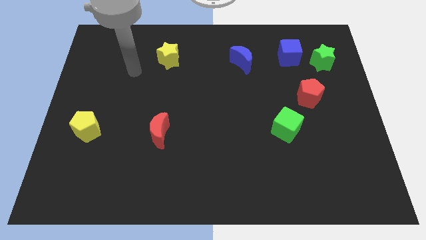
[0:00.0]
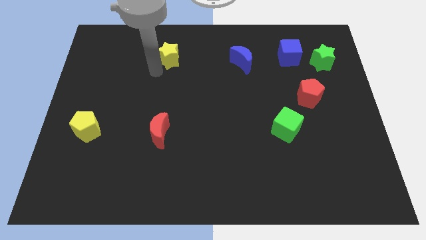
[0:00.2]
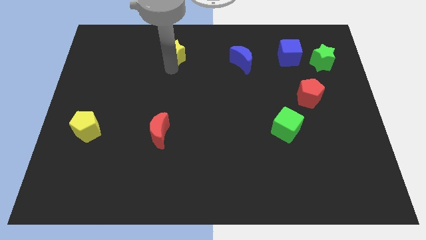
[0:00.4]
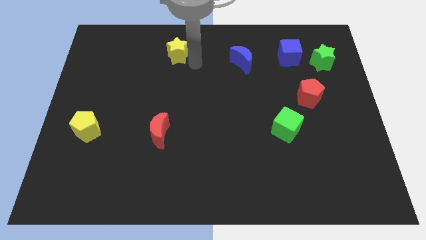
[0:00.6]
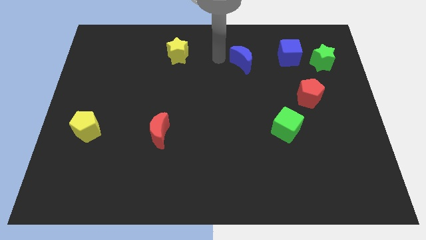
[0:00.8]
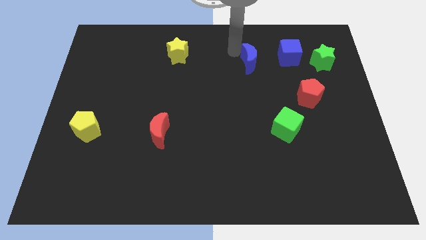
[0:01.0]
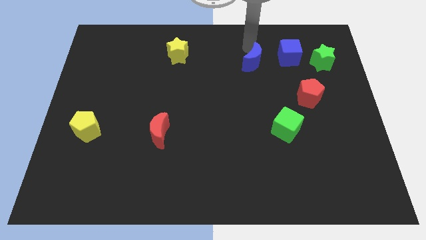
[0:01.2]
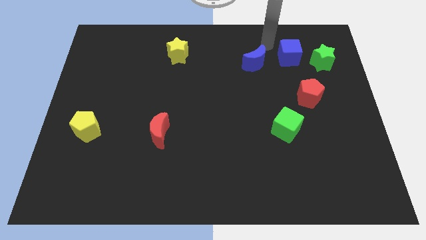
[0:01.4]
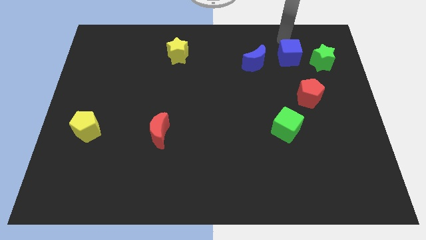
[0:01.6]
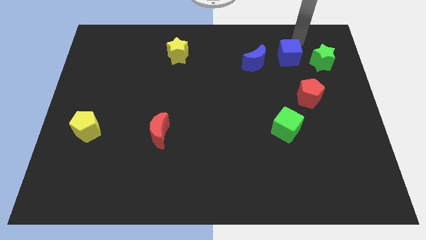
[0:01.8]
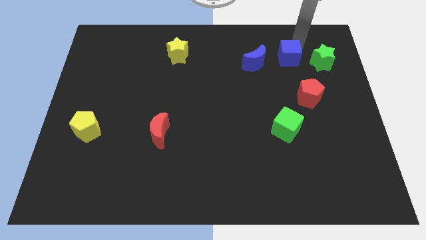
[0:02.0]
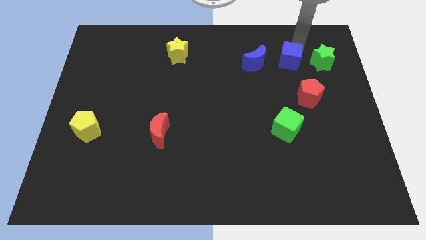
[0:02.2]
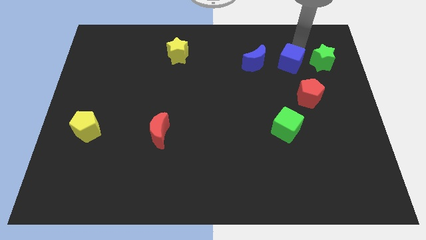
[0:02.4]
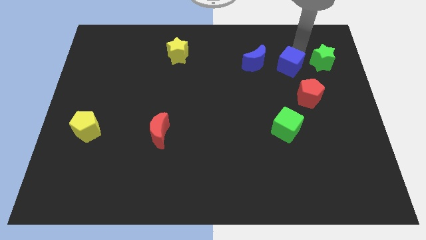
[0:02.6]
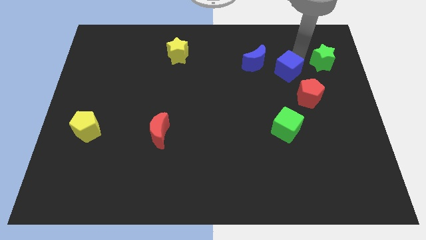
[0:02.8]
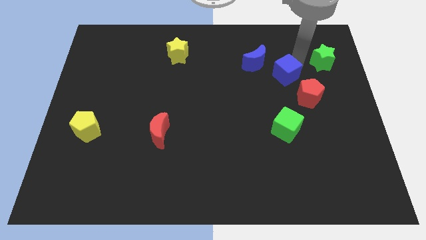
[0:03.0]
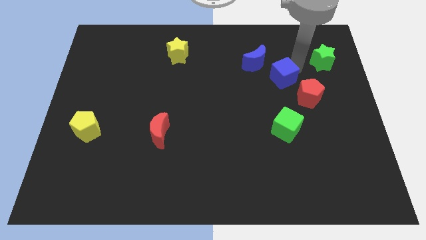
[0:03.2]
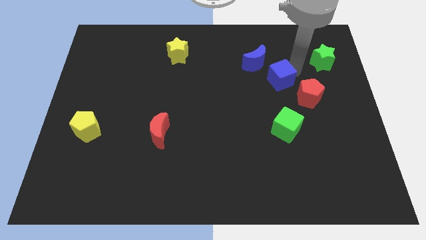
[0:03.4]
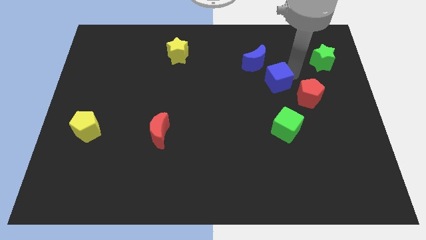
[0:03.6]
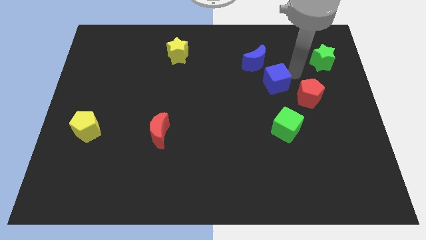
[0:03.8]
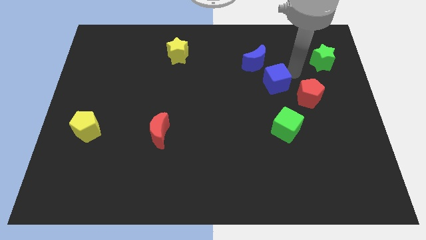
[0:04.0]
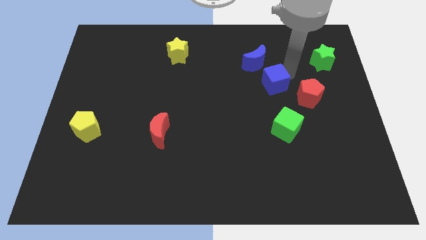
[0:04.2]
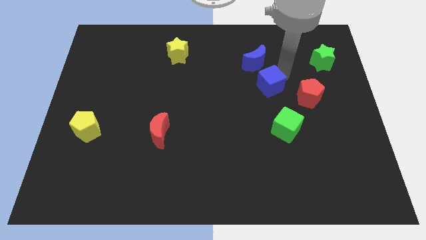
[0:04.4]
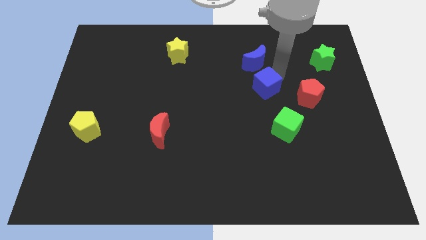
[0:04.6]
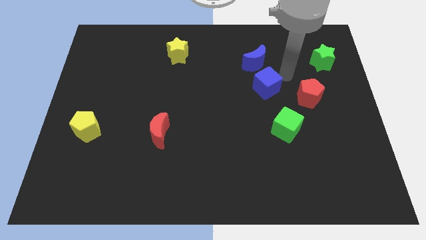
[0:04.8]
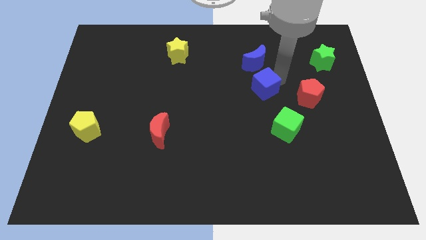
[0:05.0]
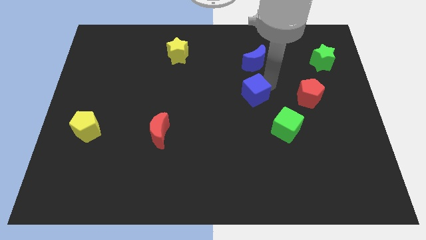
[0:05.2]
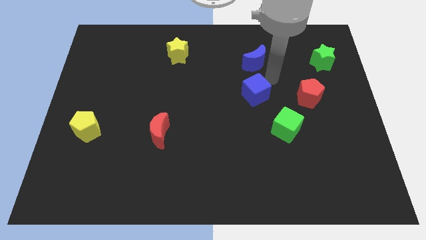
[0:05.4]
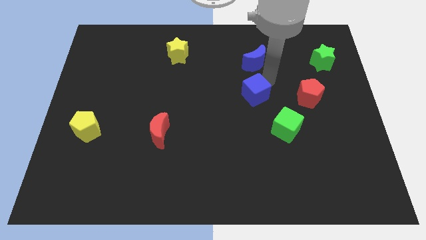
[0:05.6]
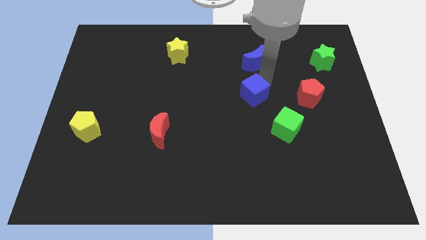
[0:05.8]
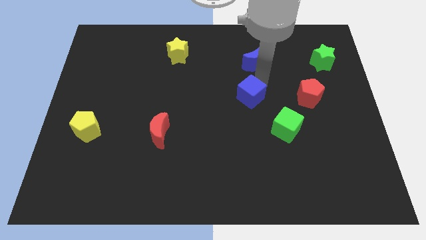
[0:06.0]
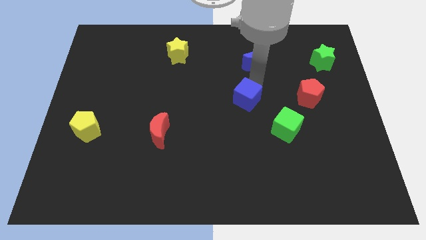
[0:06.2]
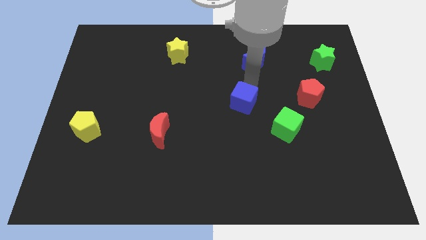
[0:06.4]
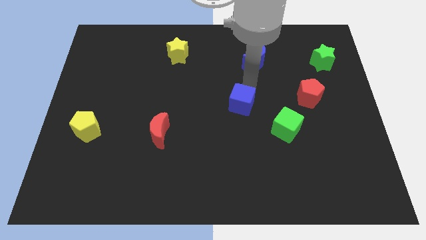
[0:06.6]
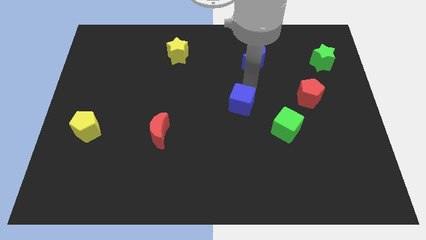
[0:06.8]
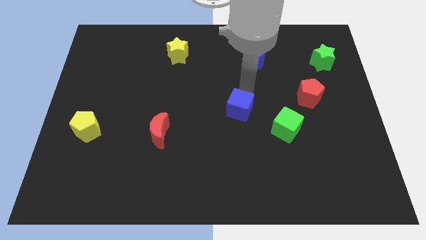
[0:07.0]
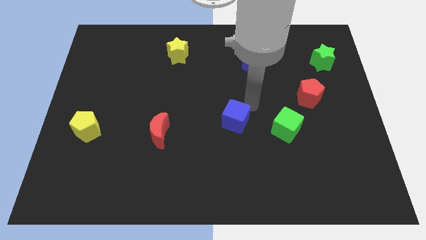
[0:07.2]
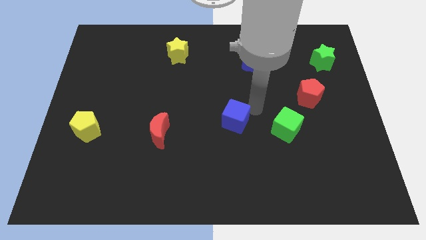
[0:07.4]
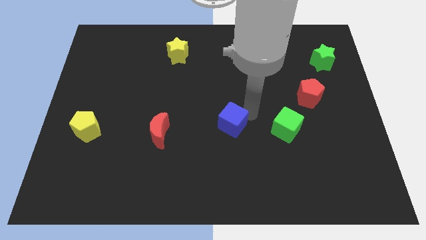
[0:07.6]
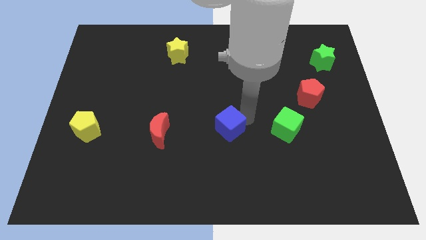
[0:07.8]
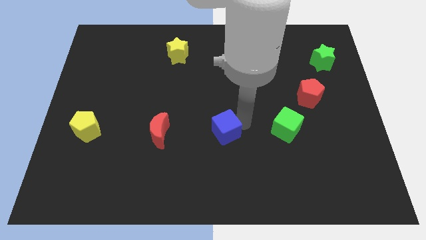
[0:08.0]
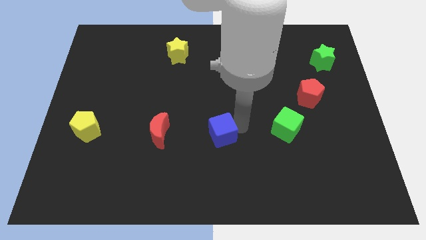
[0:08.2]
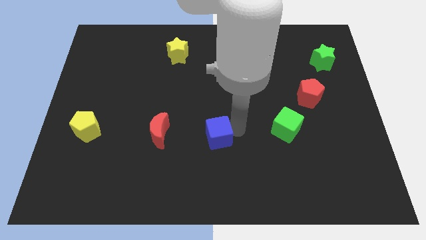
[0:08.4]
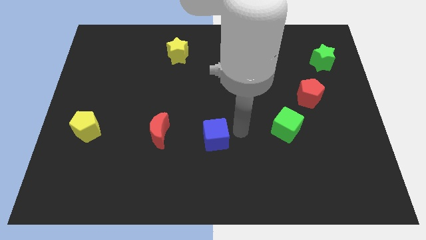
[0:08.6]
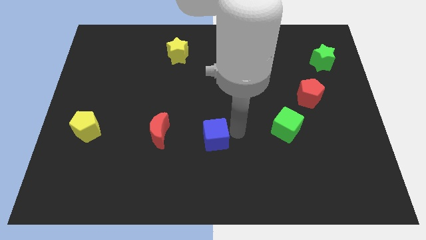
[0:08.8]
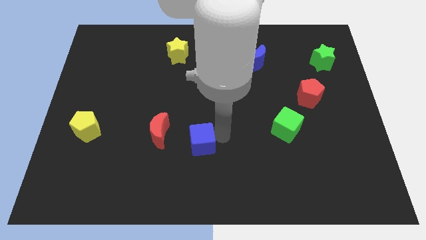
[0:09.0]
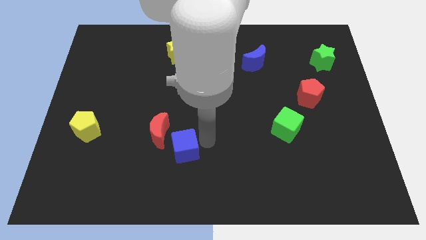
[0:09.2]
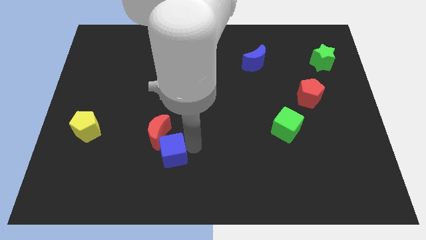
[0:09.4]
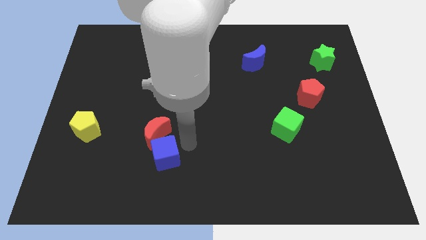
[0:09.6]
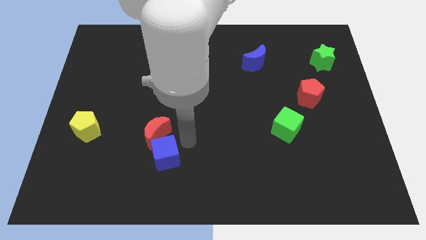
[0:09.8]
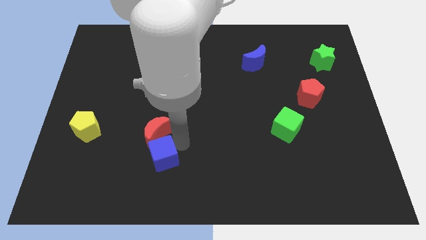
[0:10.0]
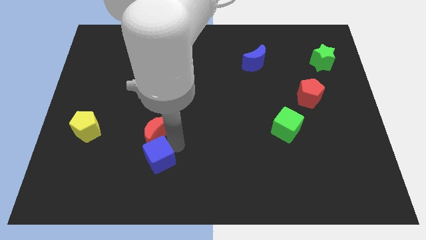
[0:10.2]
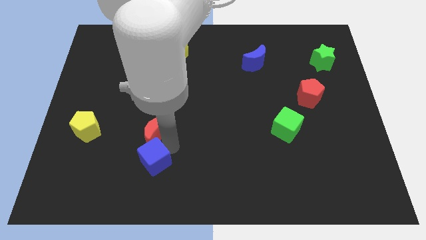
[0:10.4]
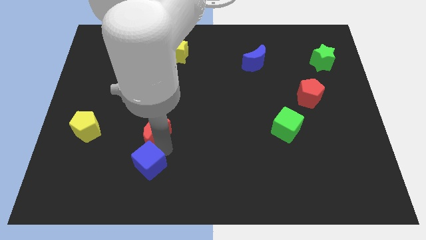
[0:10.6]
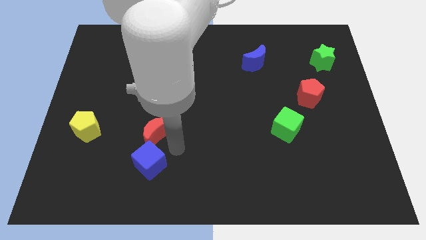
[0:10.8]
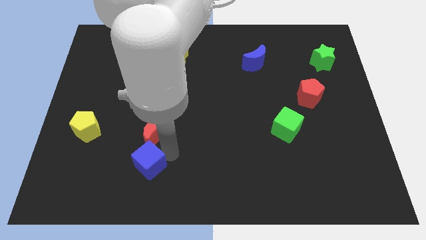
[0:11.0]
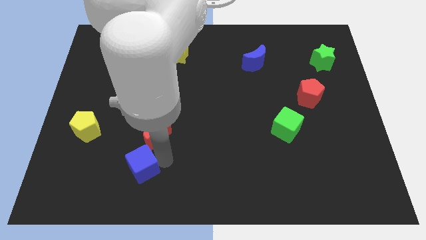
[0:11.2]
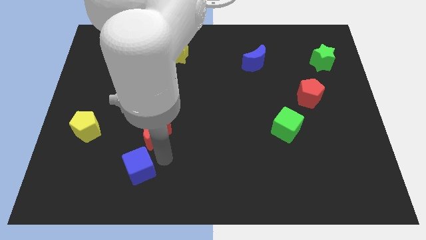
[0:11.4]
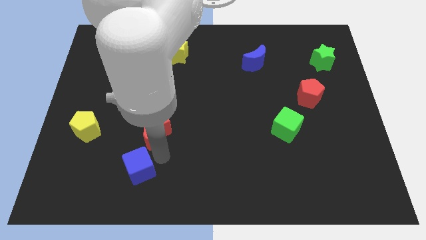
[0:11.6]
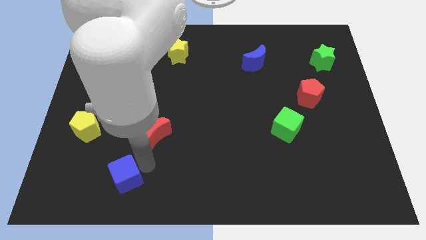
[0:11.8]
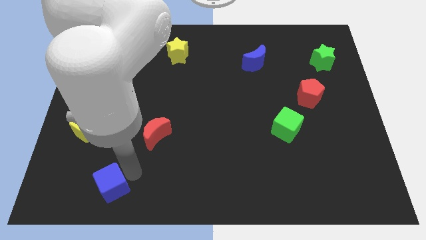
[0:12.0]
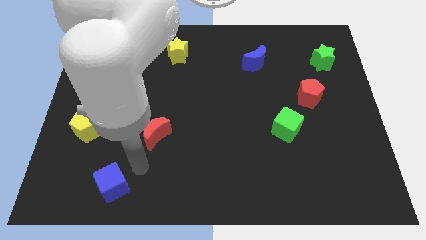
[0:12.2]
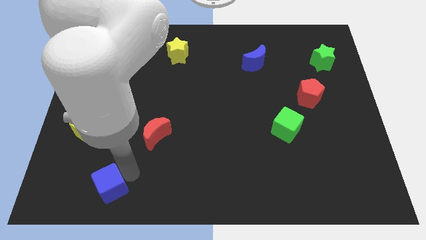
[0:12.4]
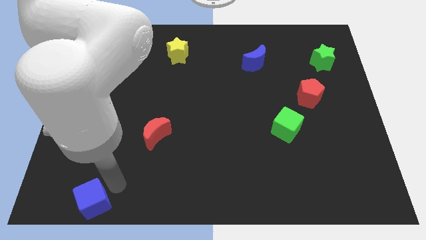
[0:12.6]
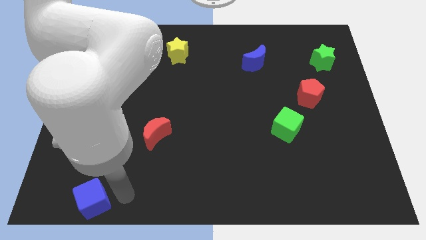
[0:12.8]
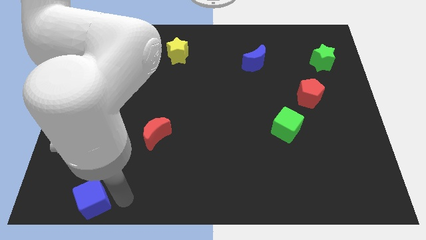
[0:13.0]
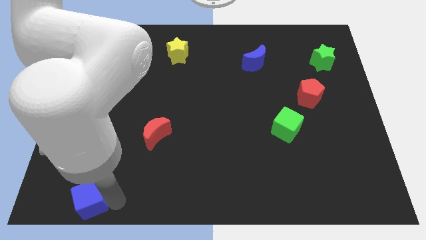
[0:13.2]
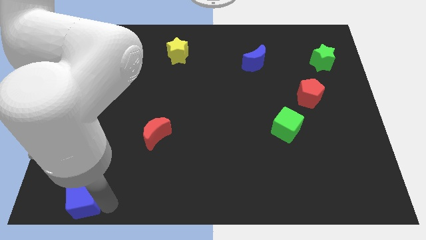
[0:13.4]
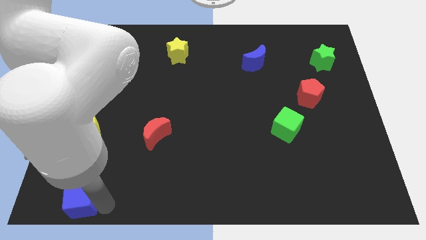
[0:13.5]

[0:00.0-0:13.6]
push the blue cube to the bottom left

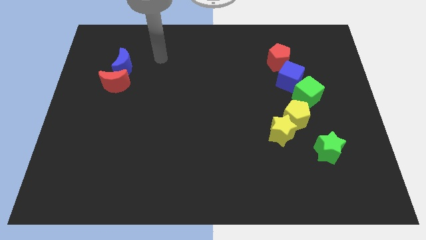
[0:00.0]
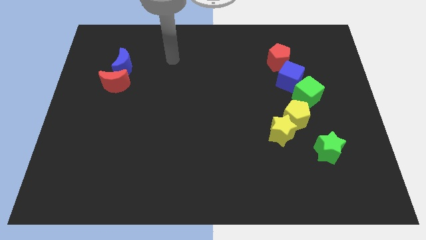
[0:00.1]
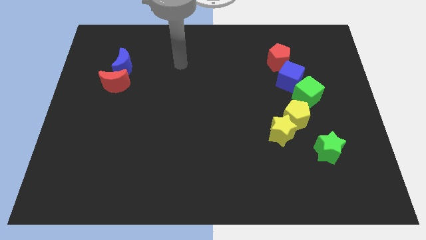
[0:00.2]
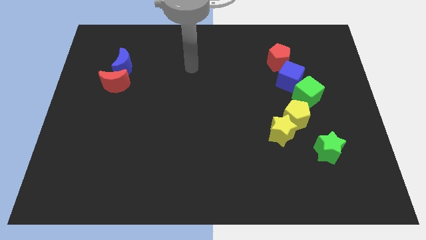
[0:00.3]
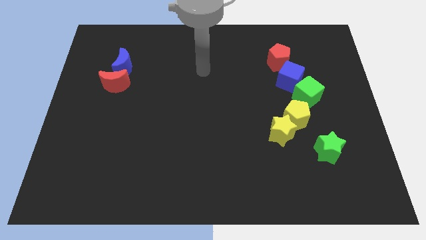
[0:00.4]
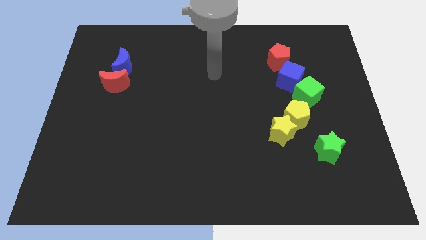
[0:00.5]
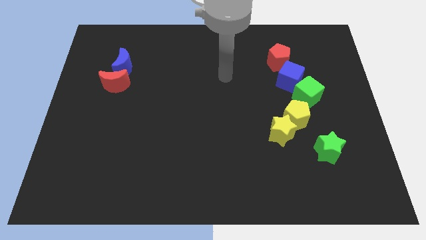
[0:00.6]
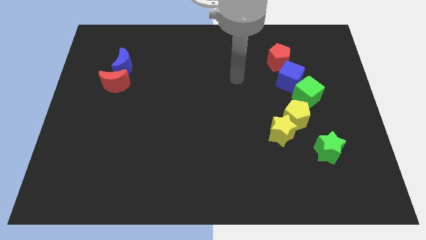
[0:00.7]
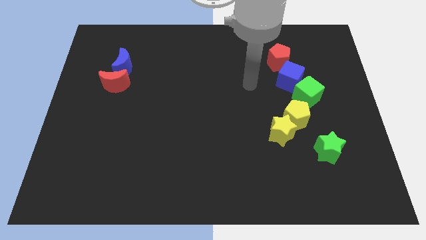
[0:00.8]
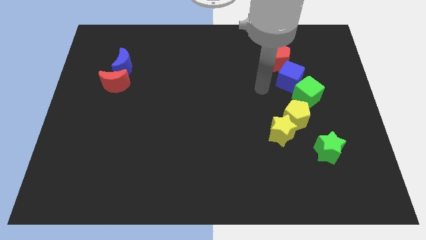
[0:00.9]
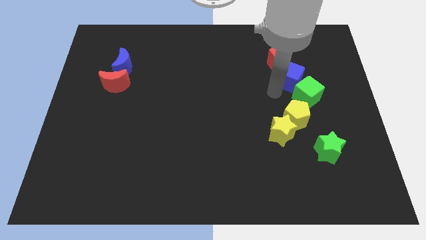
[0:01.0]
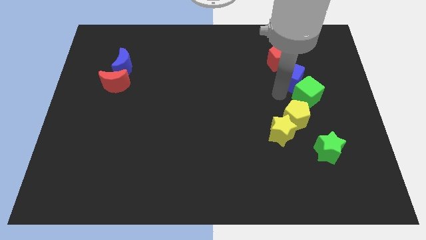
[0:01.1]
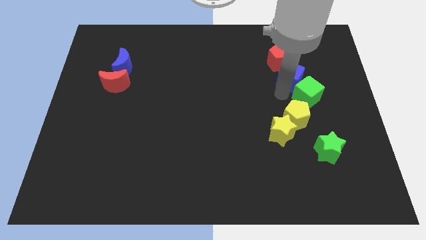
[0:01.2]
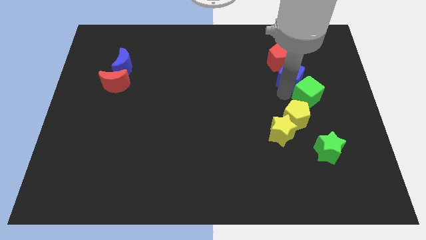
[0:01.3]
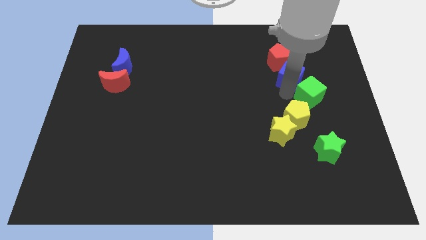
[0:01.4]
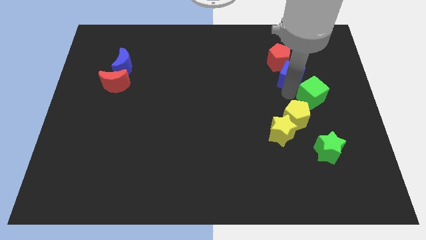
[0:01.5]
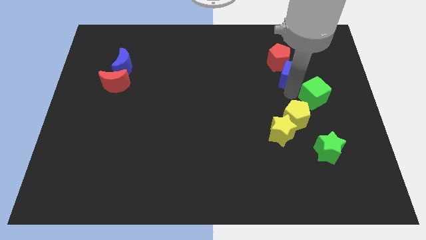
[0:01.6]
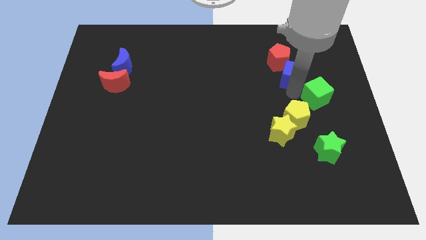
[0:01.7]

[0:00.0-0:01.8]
push the green cube to the right side of the board
